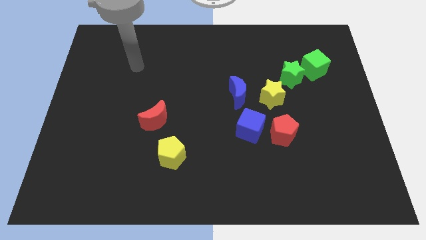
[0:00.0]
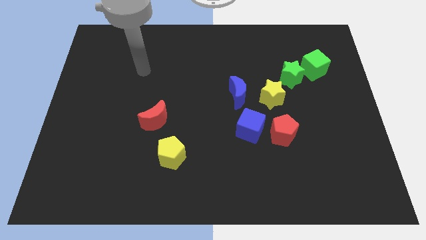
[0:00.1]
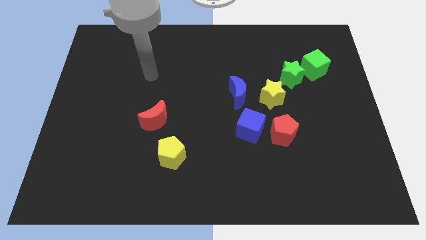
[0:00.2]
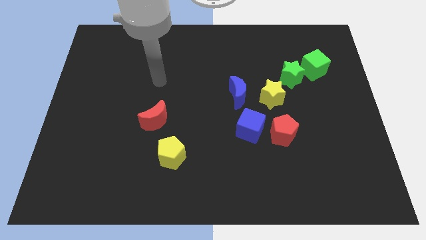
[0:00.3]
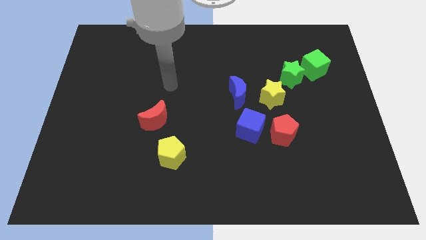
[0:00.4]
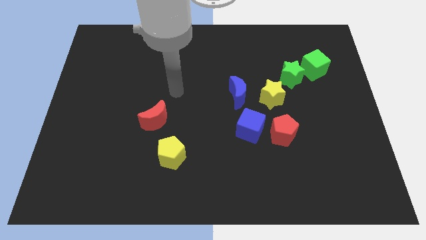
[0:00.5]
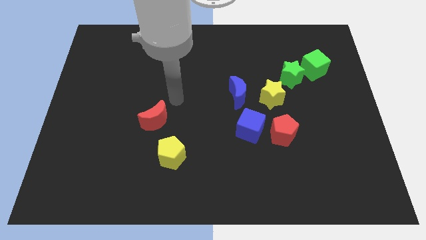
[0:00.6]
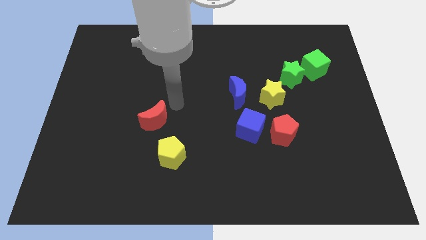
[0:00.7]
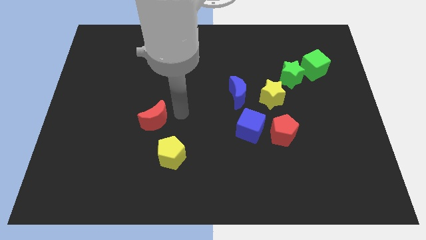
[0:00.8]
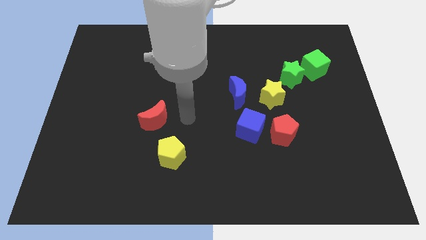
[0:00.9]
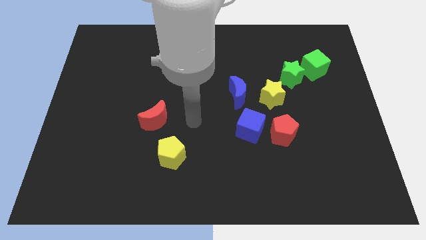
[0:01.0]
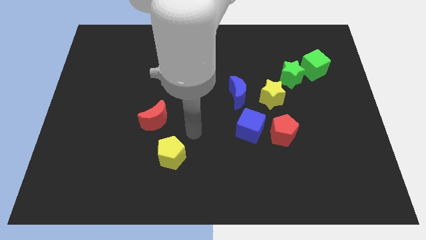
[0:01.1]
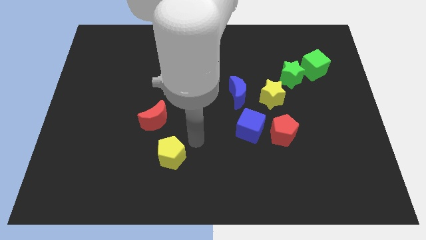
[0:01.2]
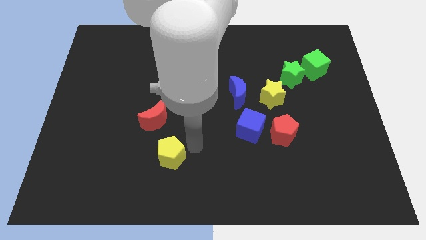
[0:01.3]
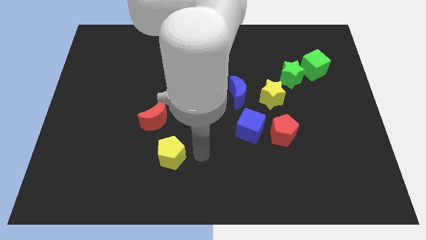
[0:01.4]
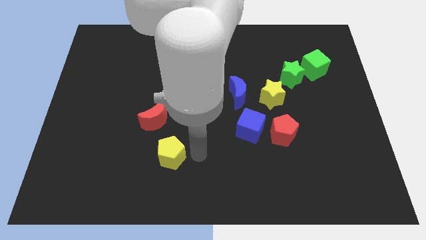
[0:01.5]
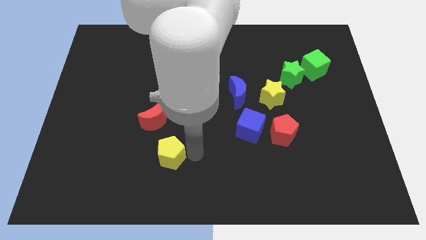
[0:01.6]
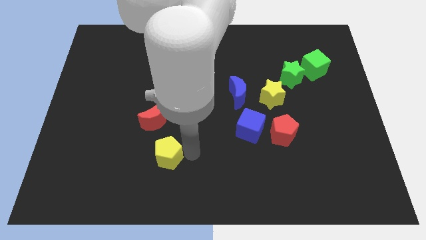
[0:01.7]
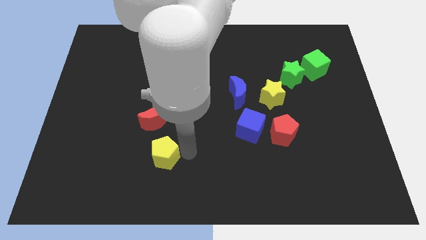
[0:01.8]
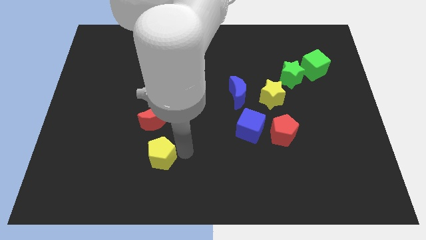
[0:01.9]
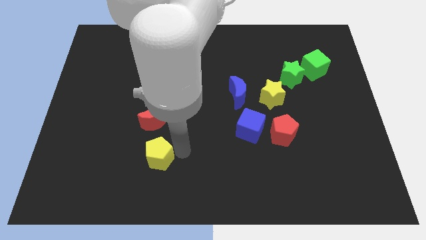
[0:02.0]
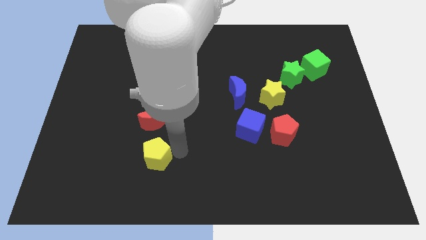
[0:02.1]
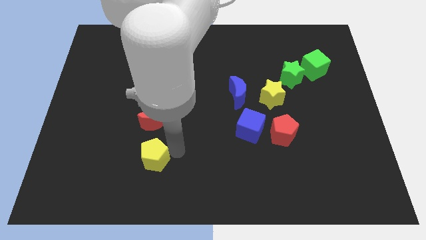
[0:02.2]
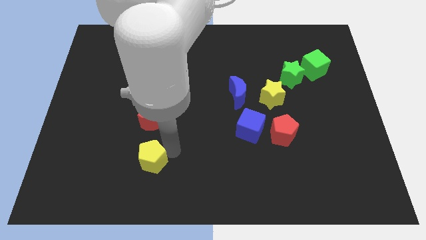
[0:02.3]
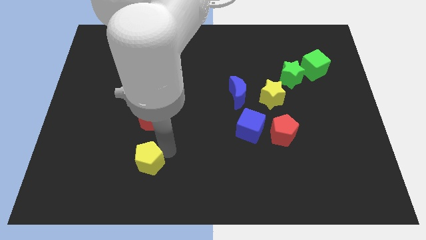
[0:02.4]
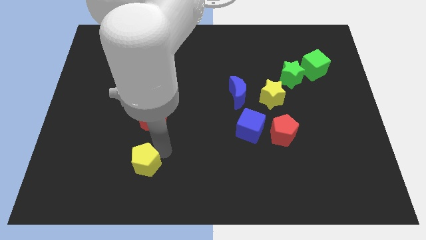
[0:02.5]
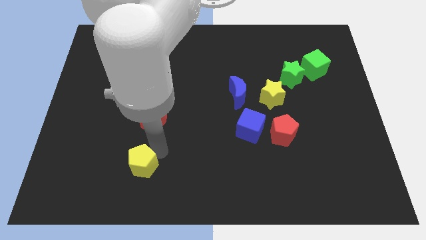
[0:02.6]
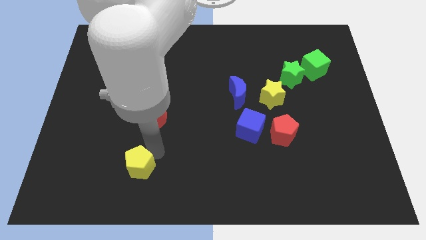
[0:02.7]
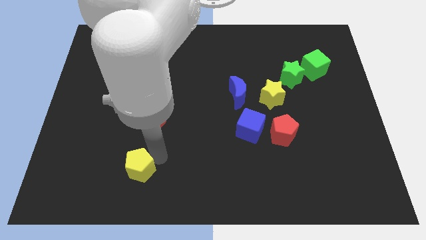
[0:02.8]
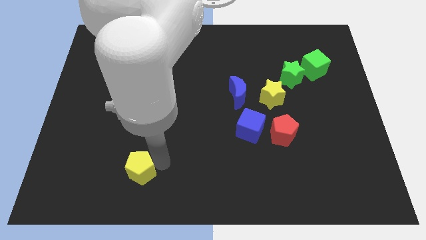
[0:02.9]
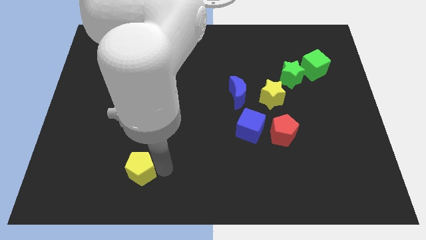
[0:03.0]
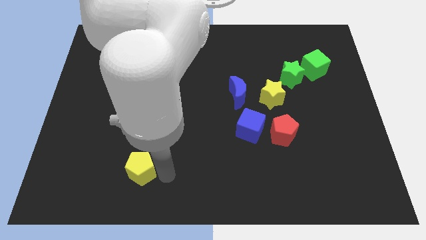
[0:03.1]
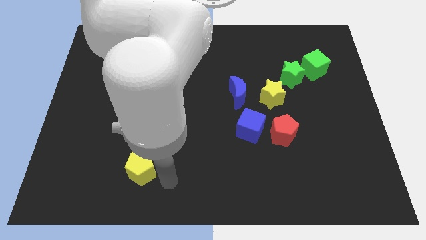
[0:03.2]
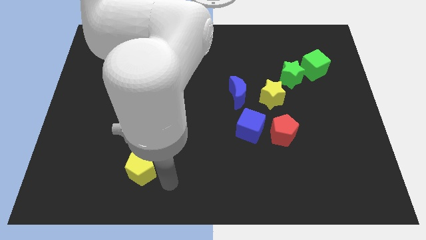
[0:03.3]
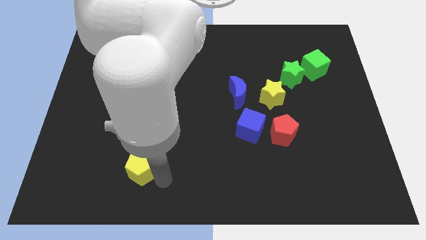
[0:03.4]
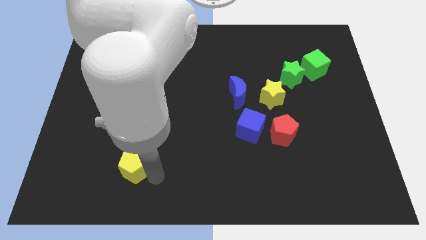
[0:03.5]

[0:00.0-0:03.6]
move the yellow pentagon left slightly

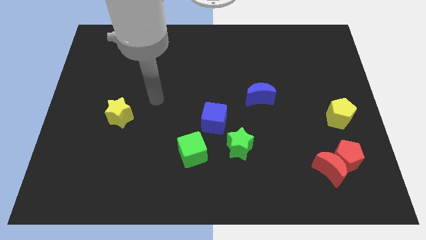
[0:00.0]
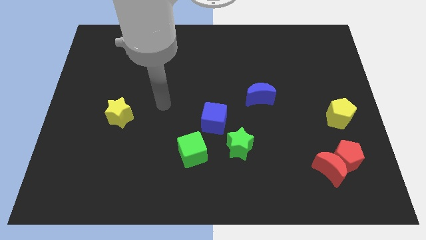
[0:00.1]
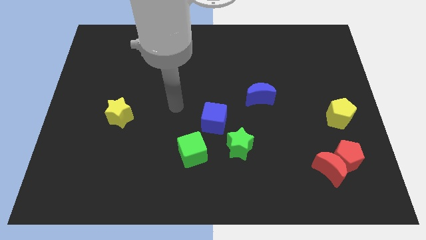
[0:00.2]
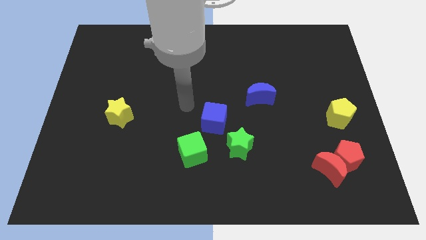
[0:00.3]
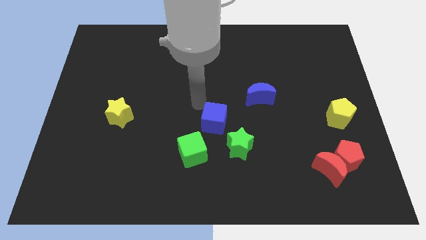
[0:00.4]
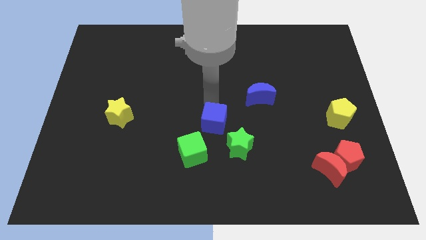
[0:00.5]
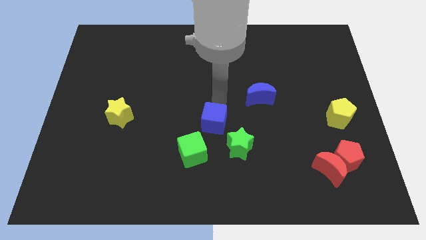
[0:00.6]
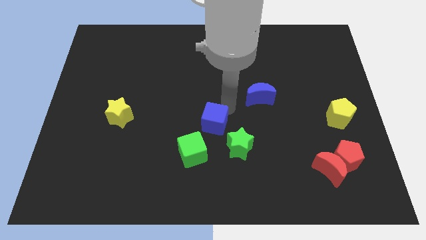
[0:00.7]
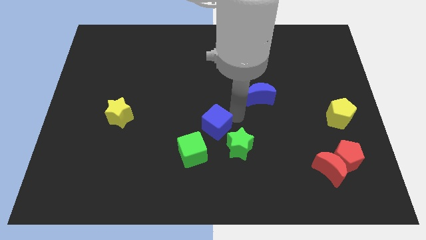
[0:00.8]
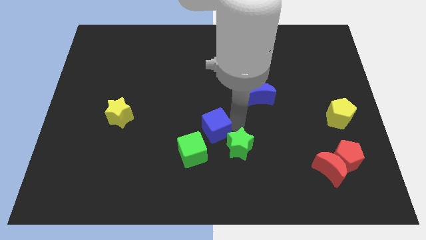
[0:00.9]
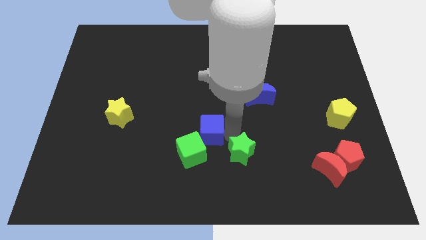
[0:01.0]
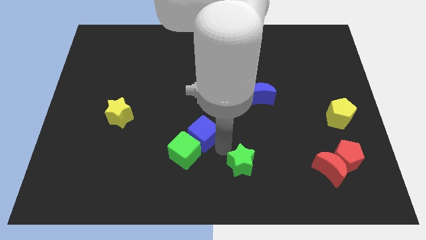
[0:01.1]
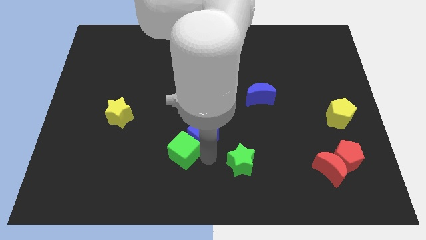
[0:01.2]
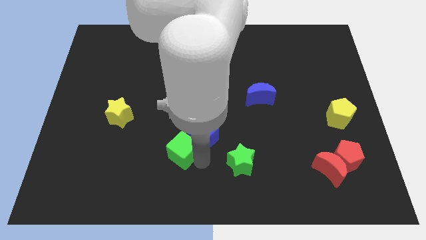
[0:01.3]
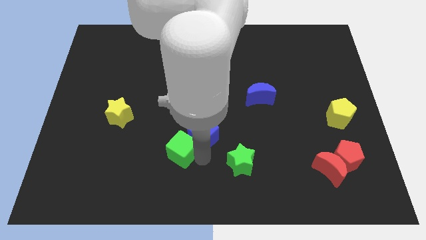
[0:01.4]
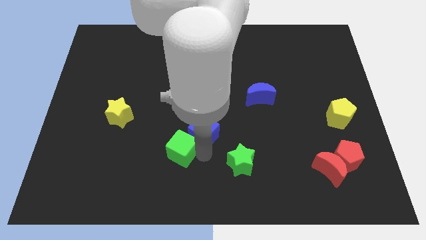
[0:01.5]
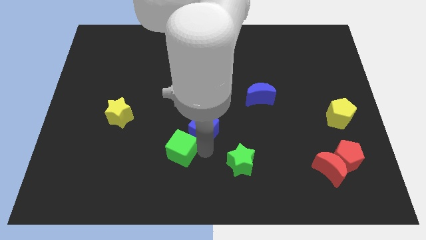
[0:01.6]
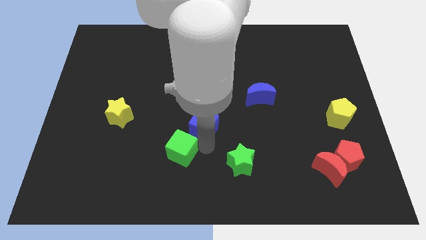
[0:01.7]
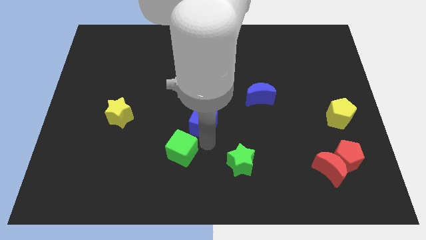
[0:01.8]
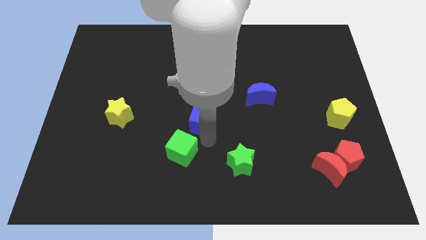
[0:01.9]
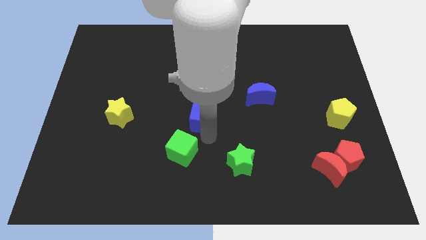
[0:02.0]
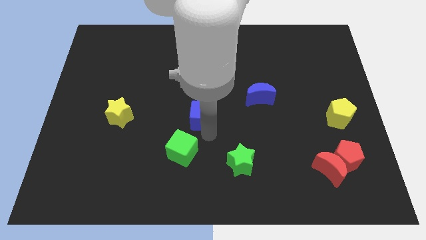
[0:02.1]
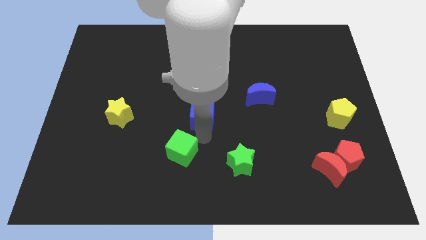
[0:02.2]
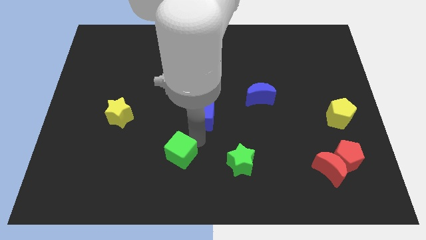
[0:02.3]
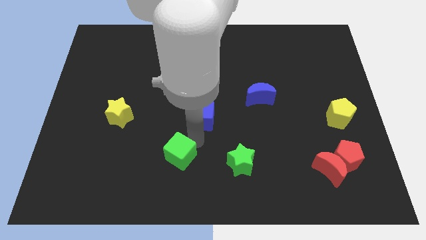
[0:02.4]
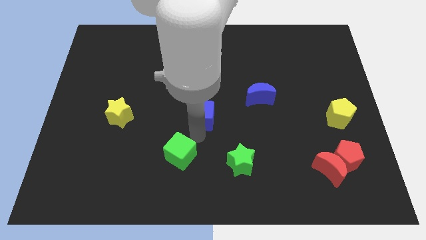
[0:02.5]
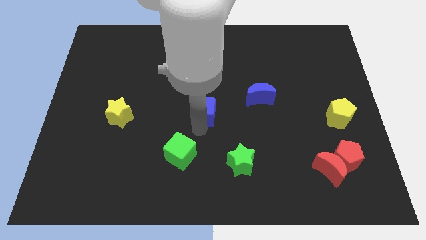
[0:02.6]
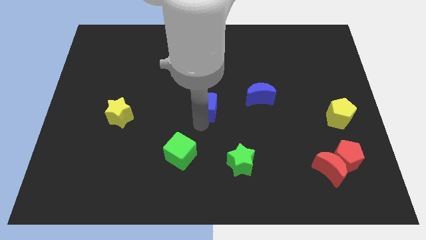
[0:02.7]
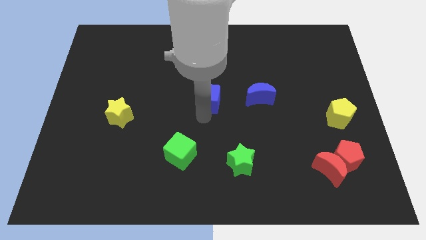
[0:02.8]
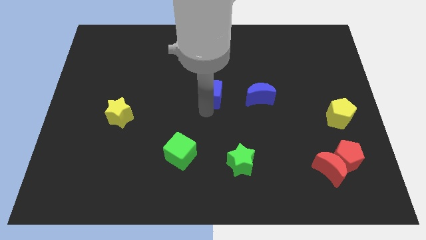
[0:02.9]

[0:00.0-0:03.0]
slightly push the blue cube upwards

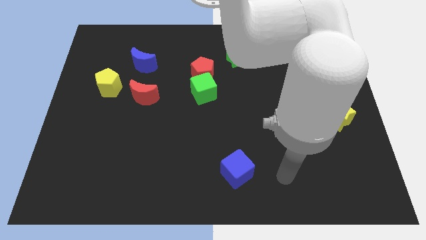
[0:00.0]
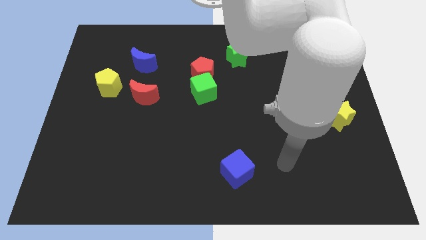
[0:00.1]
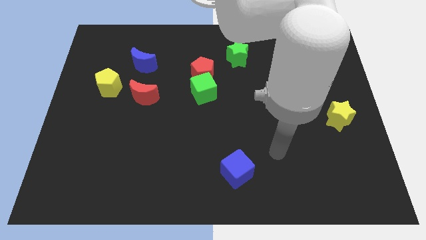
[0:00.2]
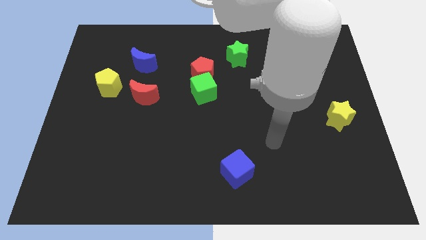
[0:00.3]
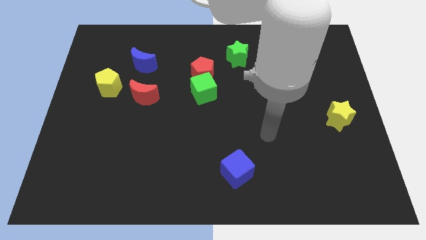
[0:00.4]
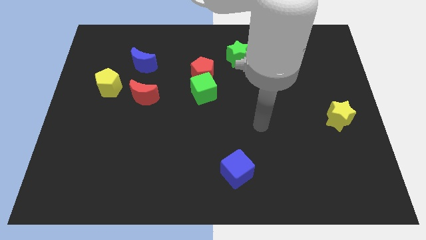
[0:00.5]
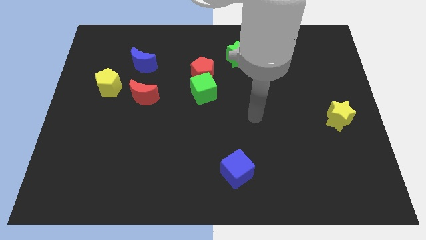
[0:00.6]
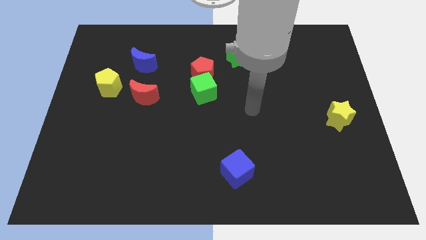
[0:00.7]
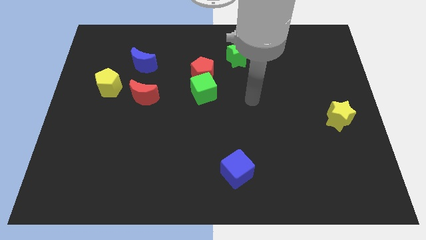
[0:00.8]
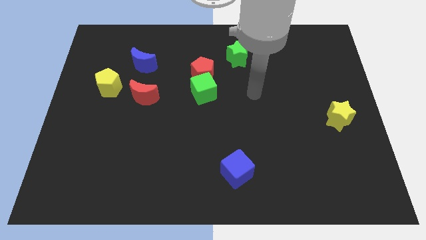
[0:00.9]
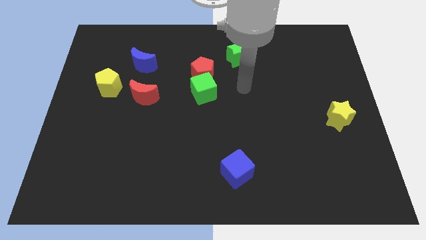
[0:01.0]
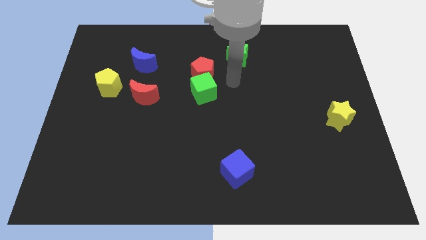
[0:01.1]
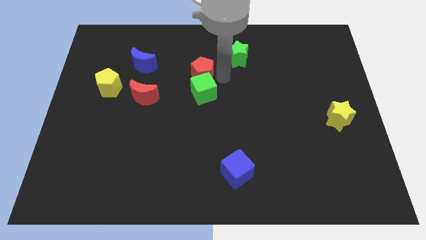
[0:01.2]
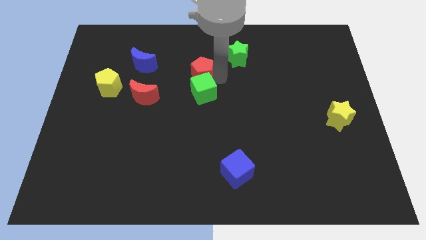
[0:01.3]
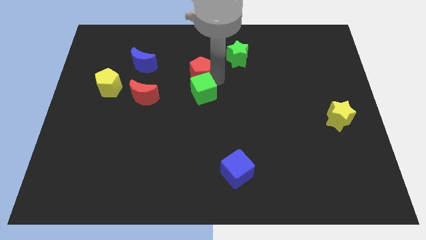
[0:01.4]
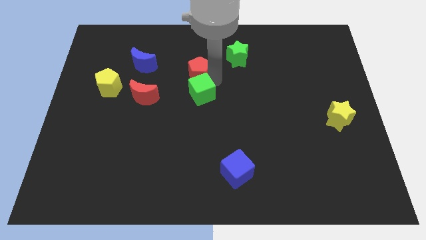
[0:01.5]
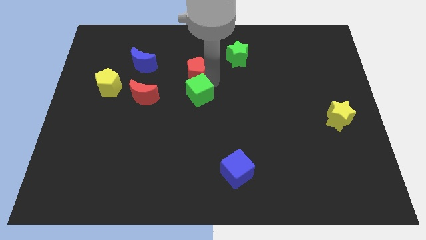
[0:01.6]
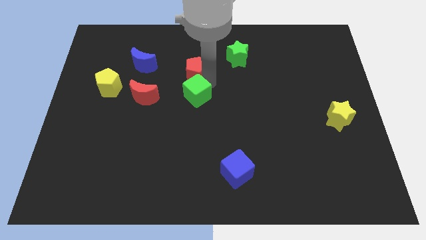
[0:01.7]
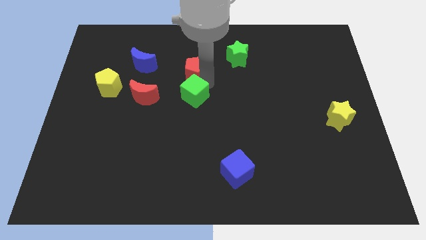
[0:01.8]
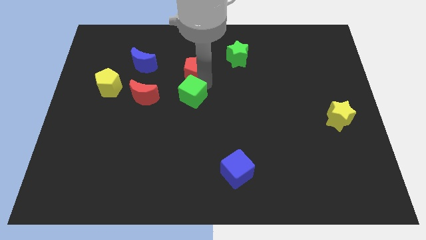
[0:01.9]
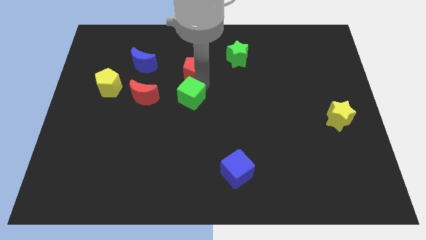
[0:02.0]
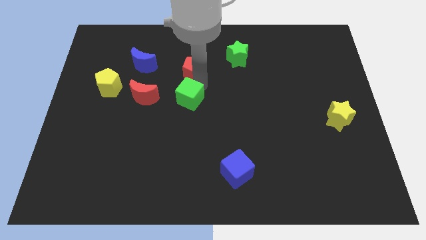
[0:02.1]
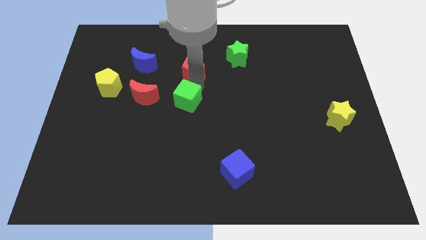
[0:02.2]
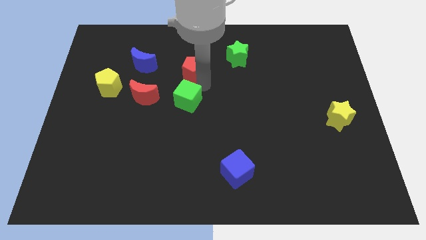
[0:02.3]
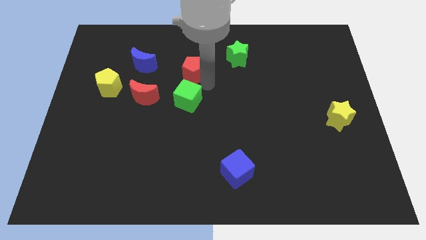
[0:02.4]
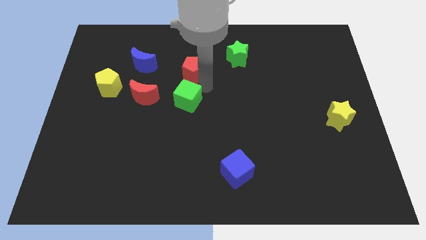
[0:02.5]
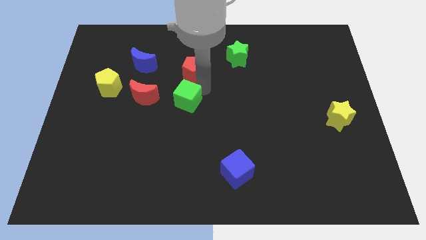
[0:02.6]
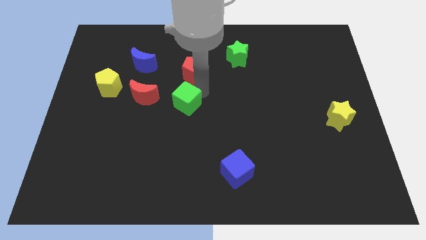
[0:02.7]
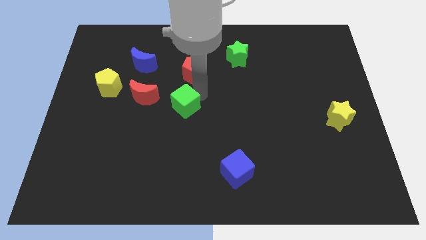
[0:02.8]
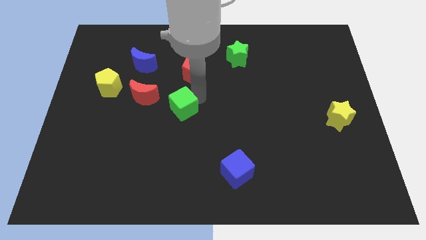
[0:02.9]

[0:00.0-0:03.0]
slightly push the green cube down and to the left
